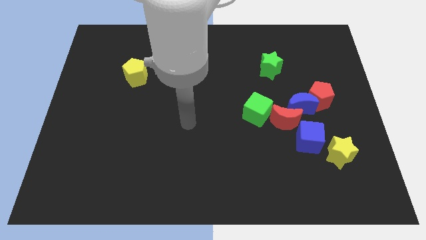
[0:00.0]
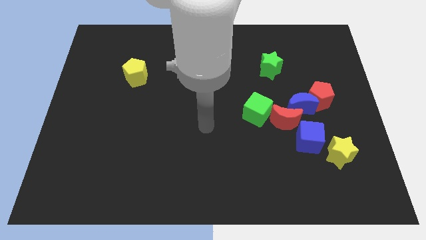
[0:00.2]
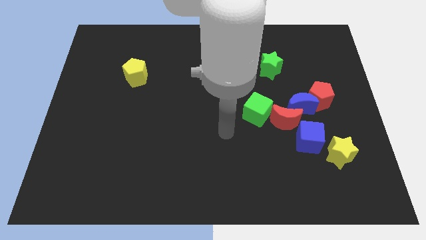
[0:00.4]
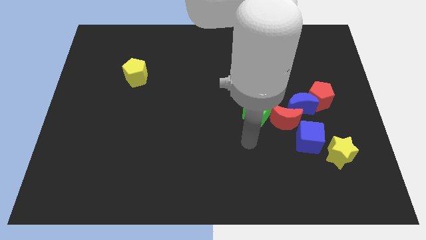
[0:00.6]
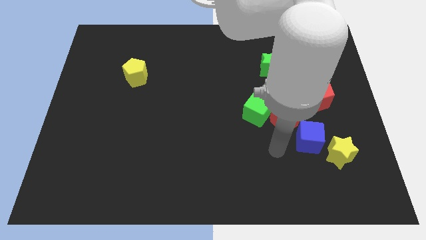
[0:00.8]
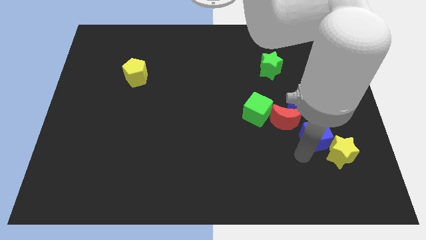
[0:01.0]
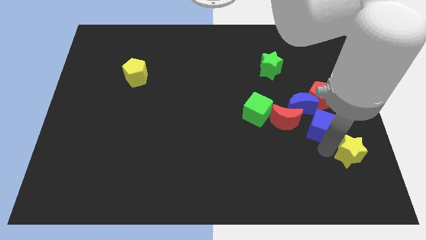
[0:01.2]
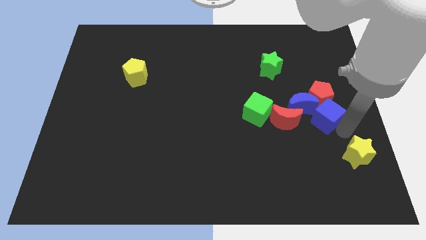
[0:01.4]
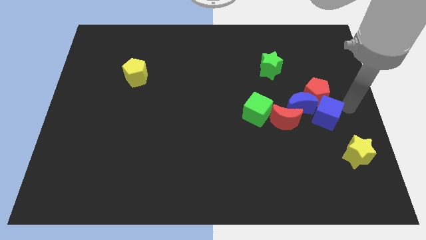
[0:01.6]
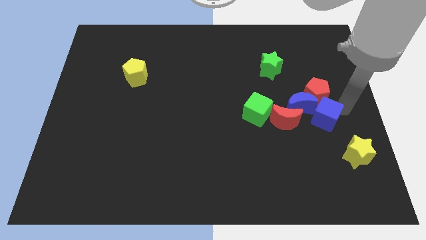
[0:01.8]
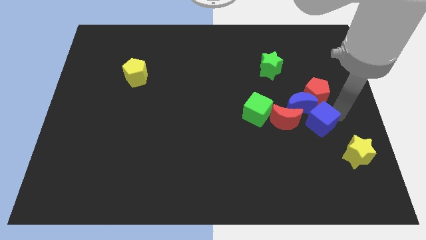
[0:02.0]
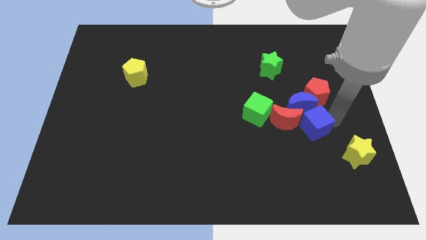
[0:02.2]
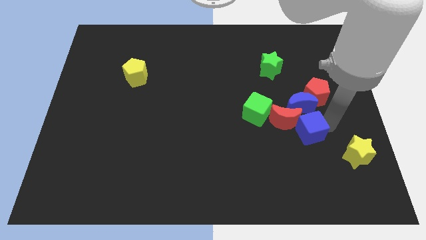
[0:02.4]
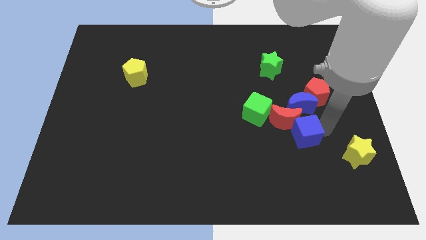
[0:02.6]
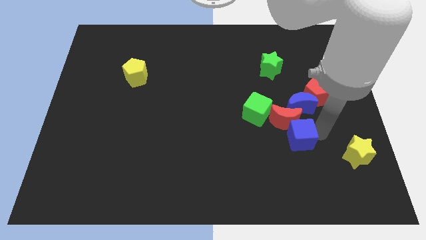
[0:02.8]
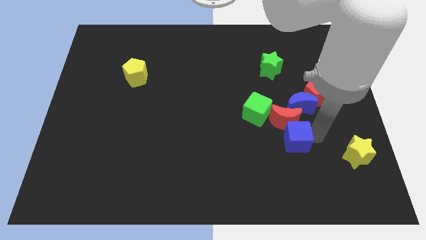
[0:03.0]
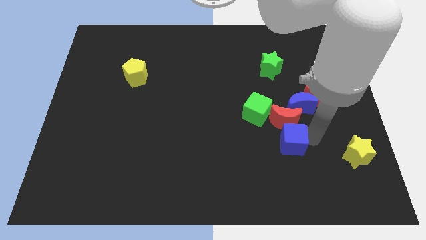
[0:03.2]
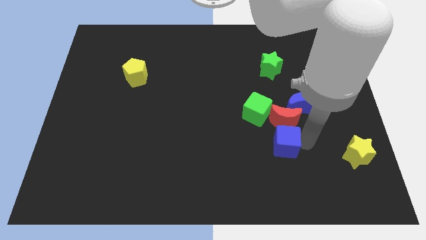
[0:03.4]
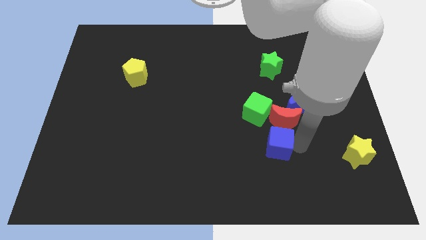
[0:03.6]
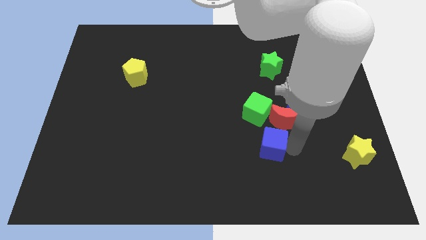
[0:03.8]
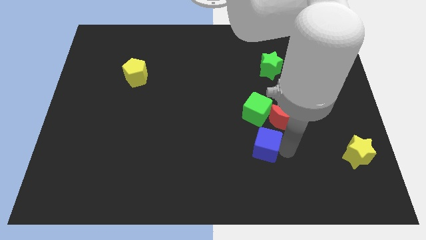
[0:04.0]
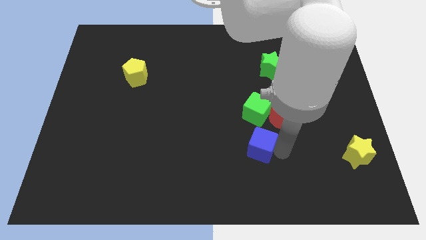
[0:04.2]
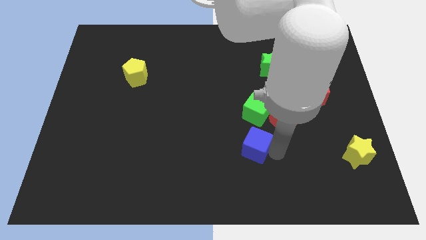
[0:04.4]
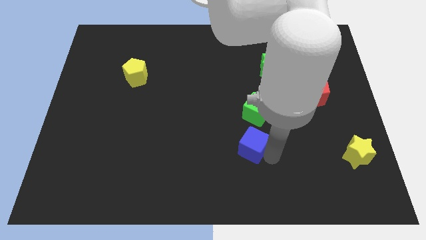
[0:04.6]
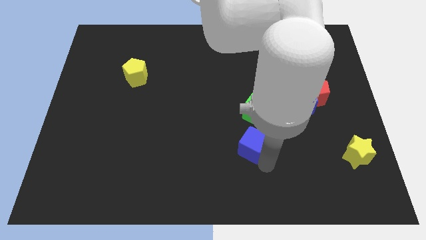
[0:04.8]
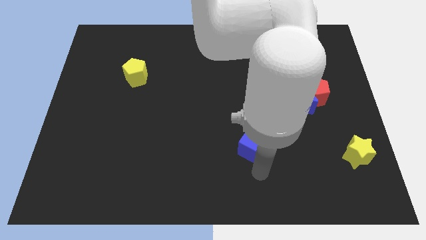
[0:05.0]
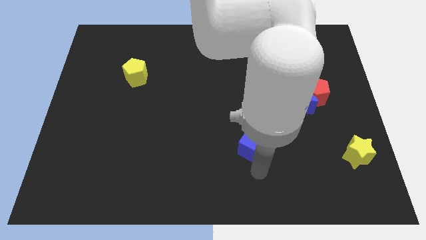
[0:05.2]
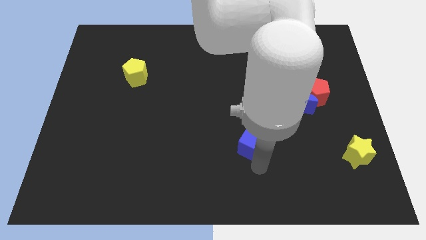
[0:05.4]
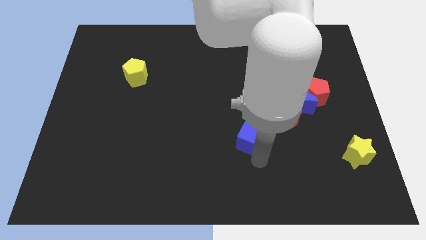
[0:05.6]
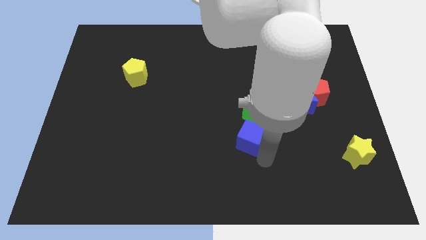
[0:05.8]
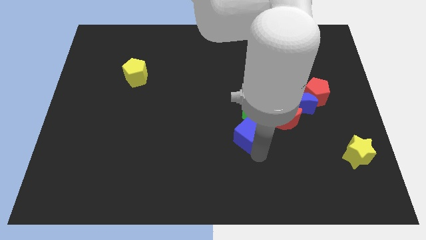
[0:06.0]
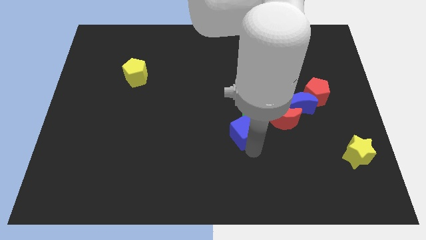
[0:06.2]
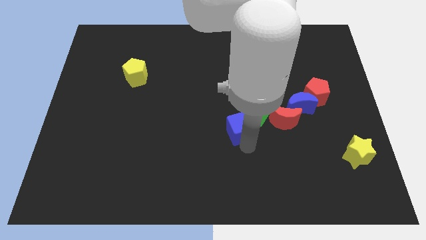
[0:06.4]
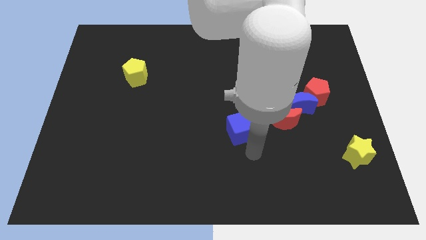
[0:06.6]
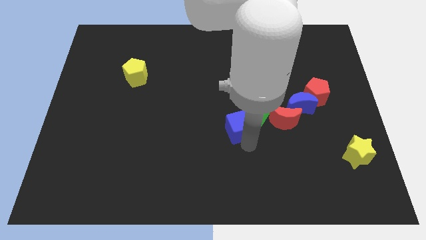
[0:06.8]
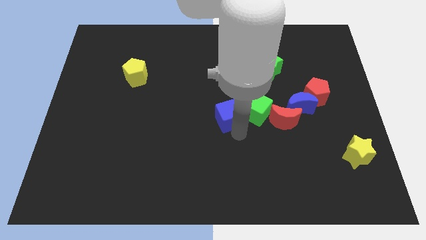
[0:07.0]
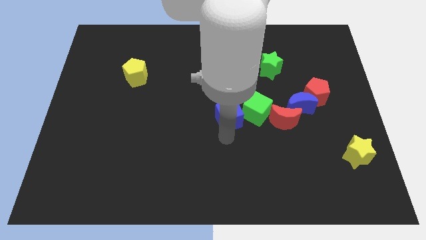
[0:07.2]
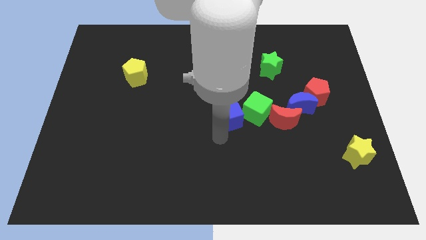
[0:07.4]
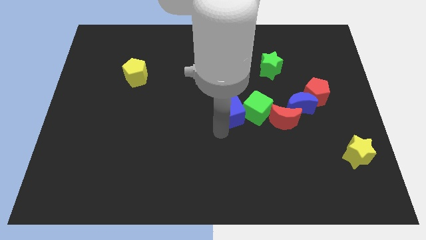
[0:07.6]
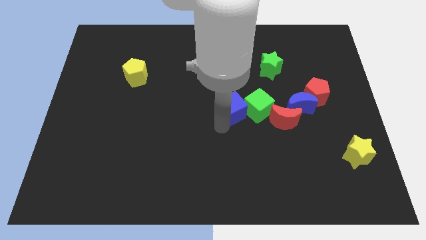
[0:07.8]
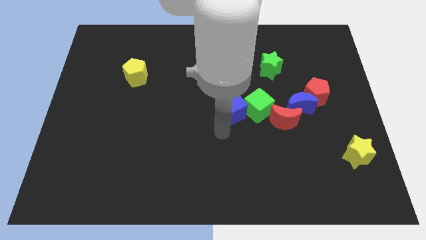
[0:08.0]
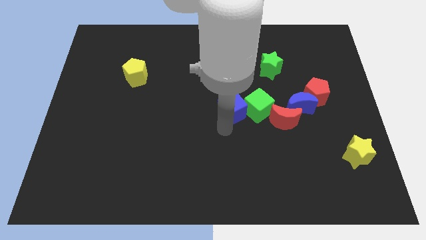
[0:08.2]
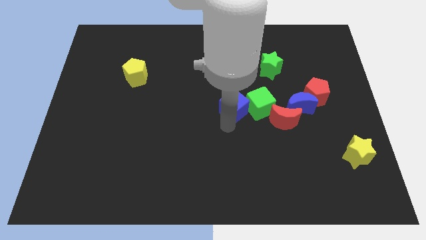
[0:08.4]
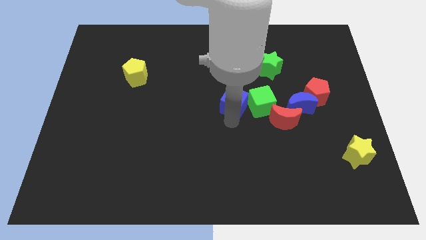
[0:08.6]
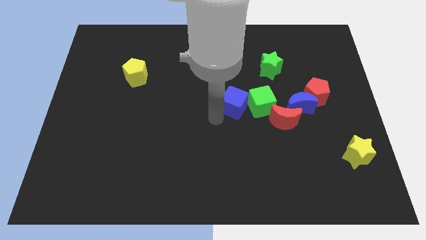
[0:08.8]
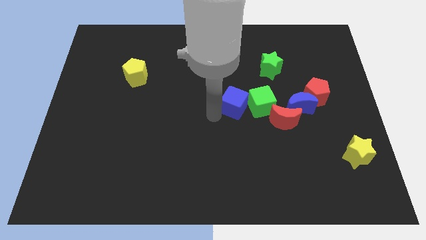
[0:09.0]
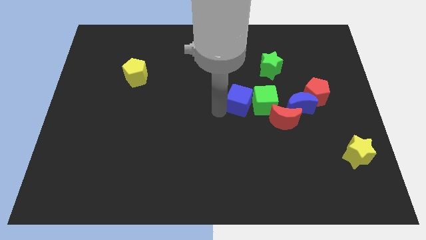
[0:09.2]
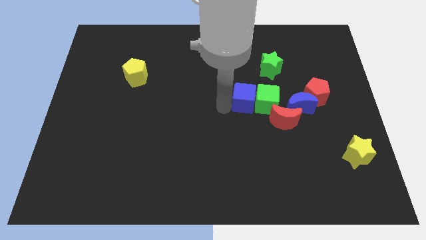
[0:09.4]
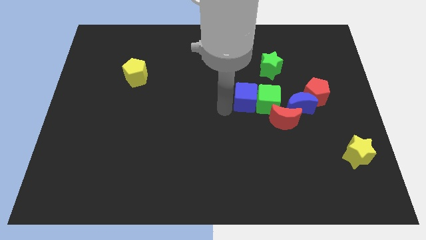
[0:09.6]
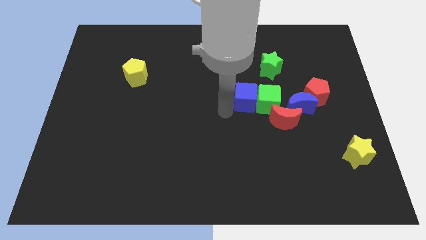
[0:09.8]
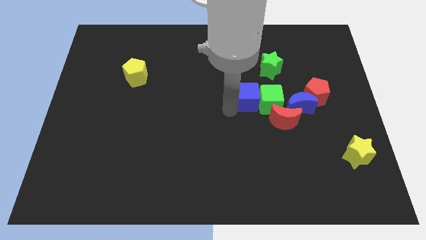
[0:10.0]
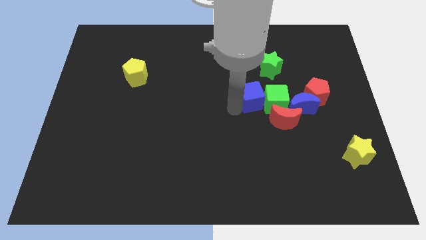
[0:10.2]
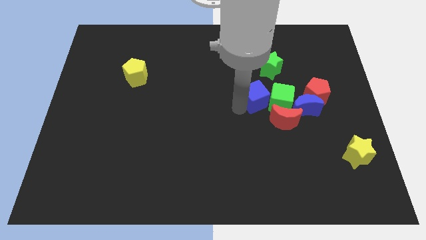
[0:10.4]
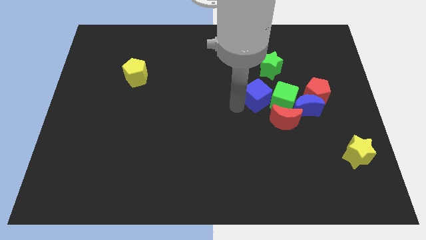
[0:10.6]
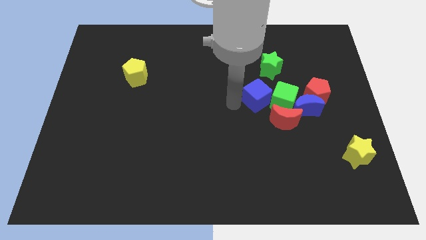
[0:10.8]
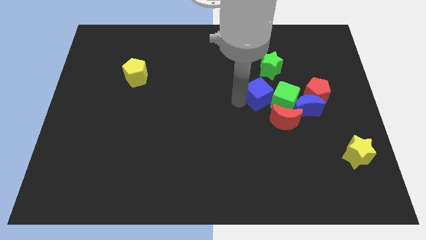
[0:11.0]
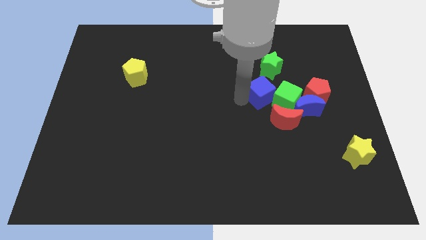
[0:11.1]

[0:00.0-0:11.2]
push the blue cube to the top left side of the blue moon

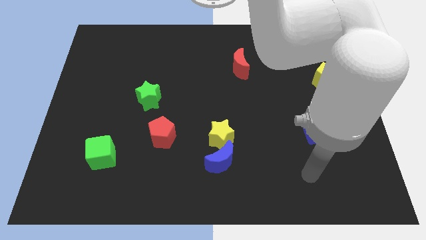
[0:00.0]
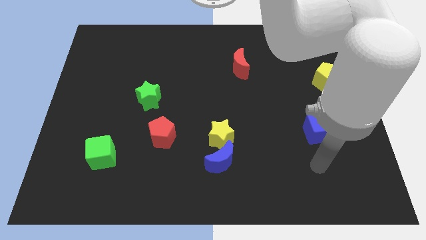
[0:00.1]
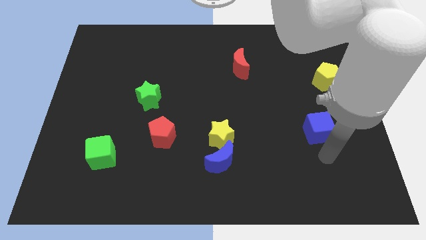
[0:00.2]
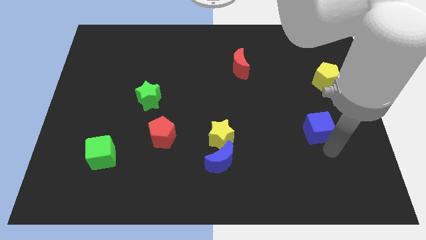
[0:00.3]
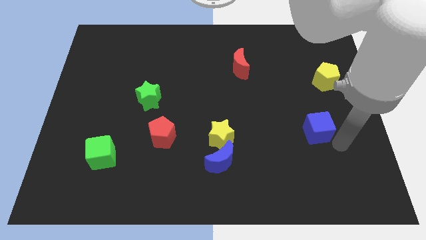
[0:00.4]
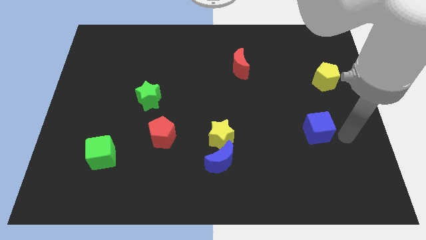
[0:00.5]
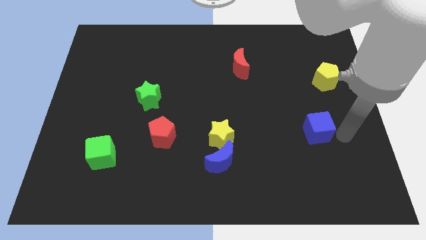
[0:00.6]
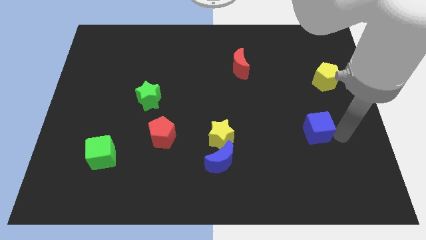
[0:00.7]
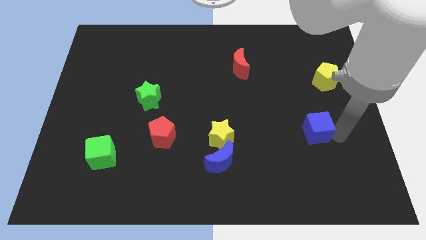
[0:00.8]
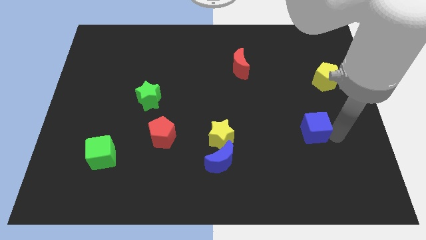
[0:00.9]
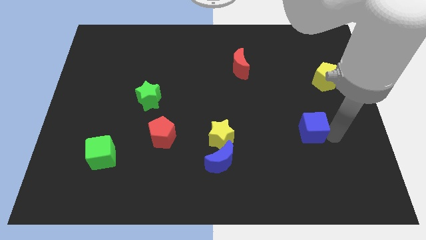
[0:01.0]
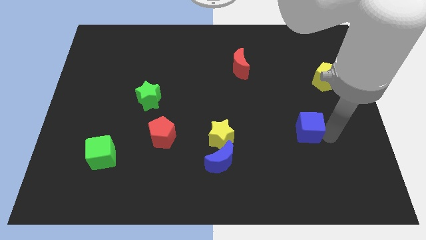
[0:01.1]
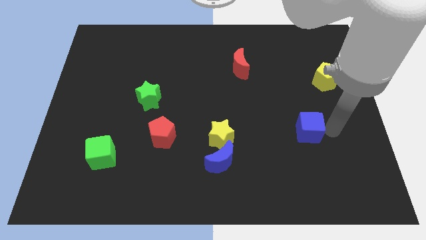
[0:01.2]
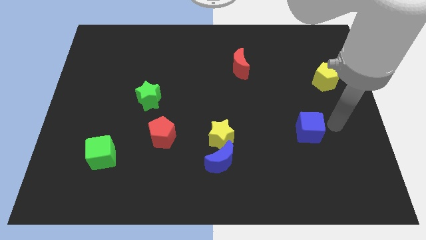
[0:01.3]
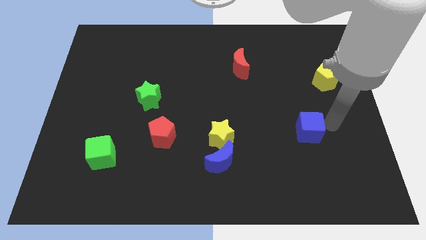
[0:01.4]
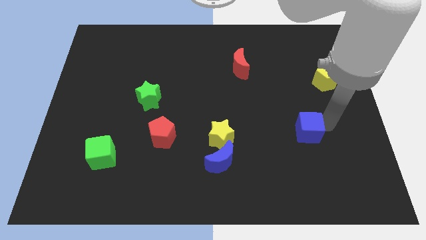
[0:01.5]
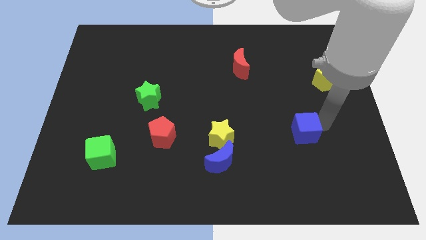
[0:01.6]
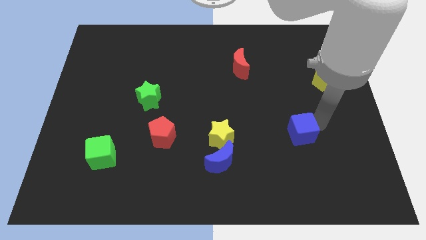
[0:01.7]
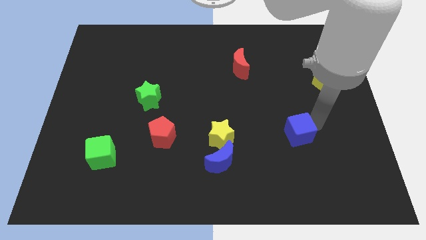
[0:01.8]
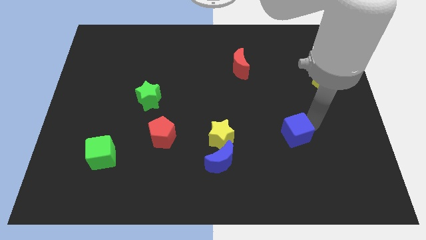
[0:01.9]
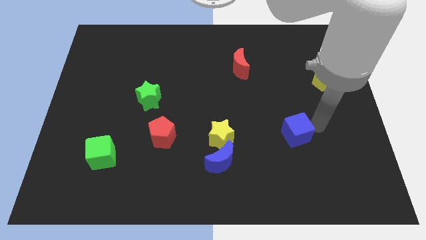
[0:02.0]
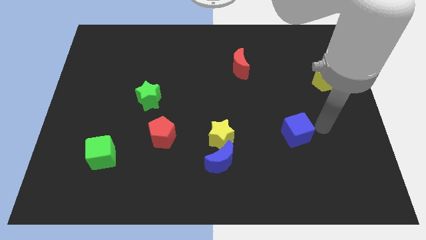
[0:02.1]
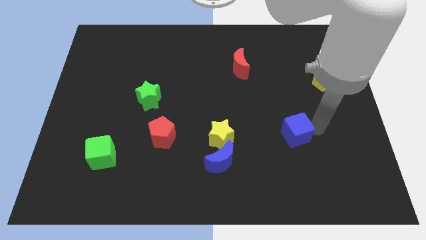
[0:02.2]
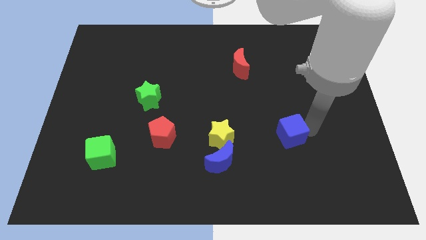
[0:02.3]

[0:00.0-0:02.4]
move the blue cube right of the yellow star
